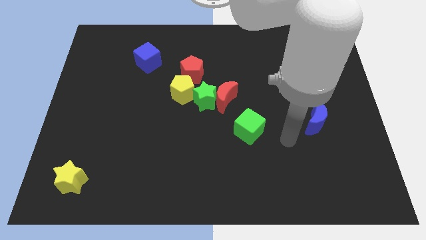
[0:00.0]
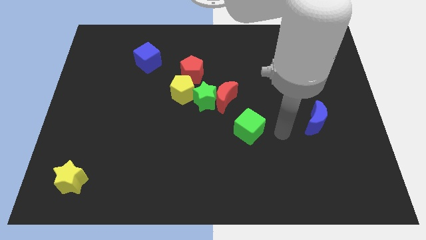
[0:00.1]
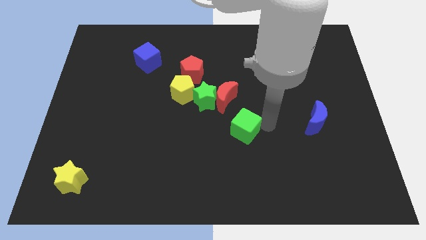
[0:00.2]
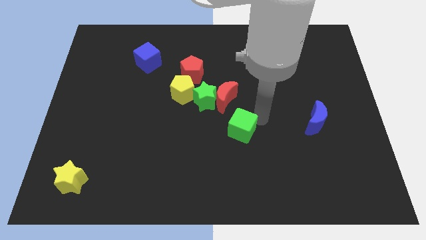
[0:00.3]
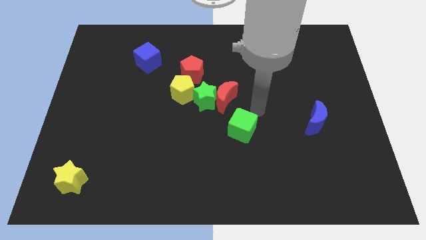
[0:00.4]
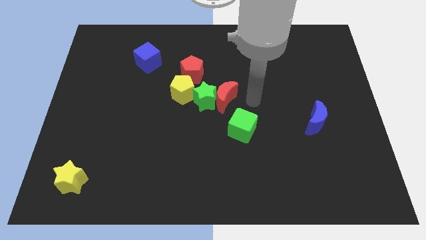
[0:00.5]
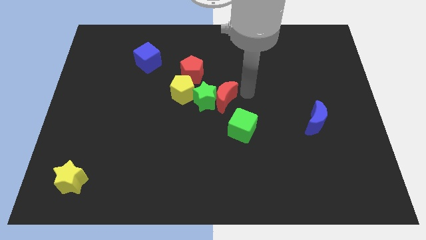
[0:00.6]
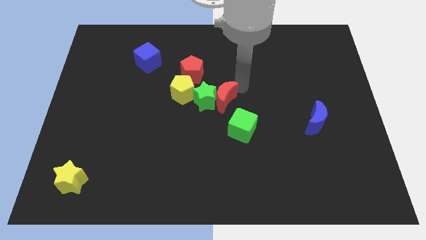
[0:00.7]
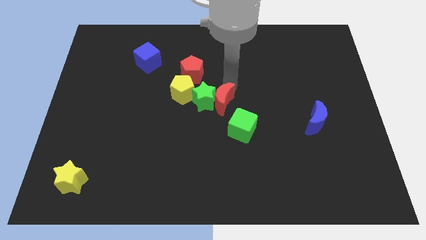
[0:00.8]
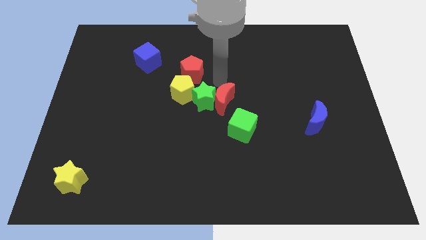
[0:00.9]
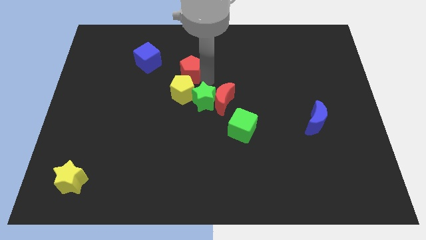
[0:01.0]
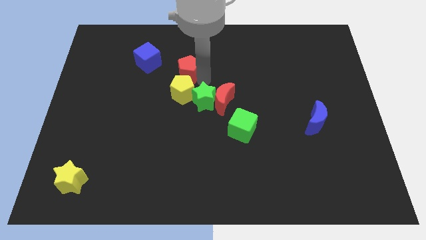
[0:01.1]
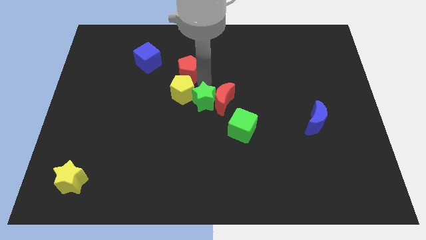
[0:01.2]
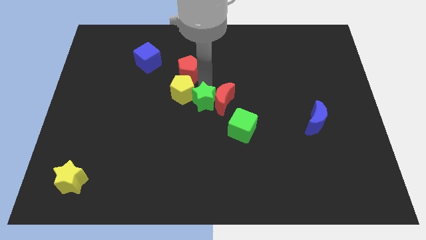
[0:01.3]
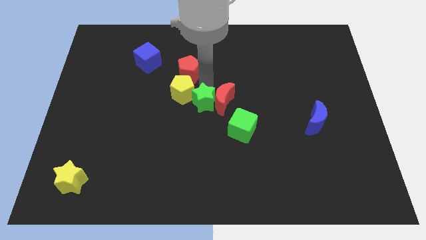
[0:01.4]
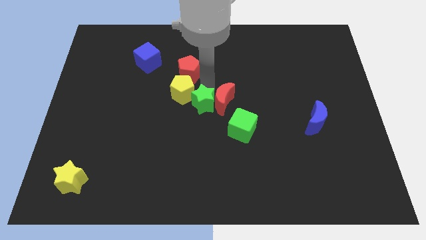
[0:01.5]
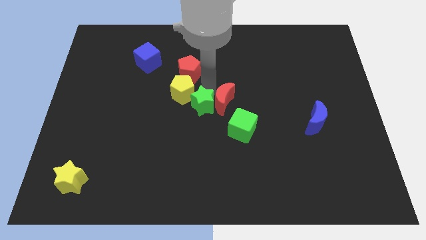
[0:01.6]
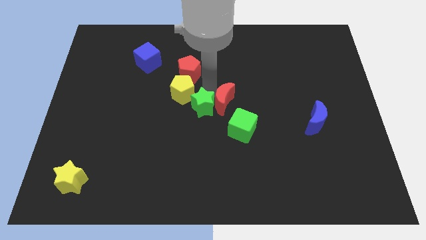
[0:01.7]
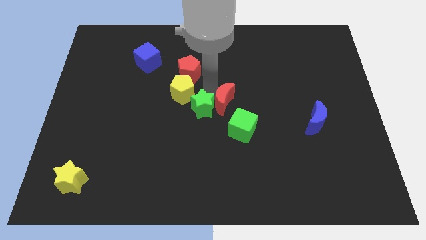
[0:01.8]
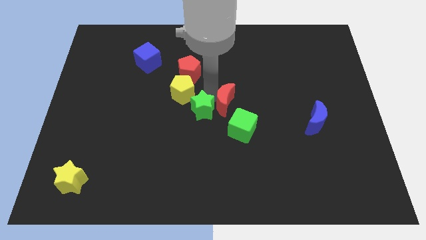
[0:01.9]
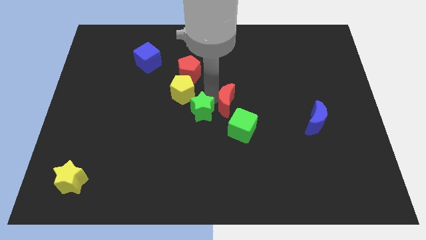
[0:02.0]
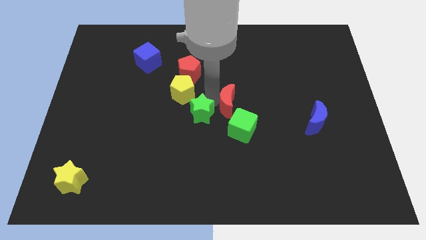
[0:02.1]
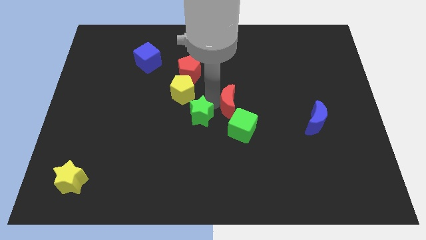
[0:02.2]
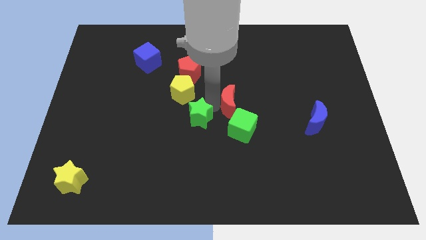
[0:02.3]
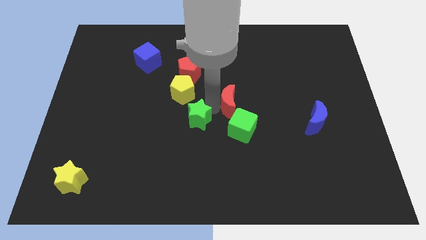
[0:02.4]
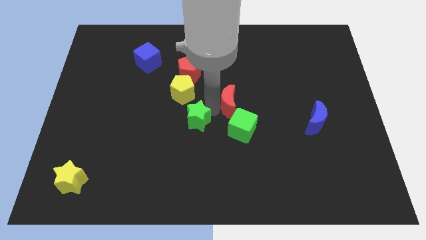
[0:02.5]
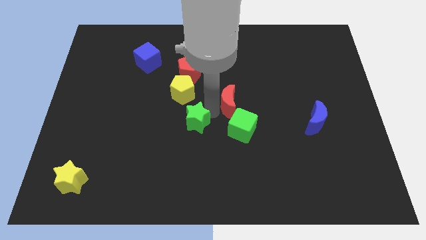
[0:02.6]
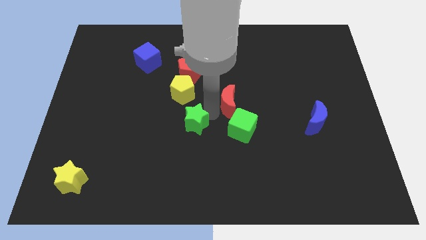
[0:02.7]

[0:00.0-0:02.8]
move the green star away from the group

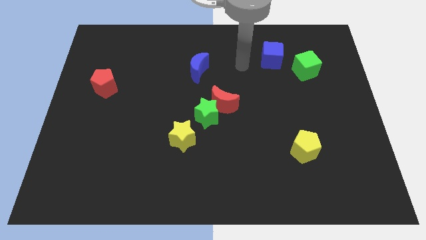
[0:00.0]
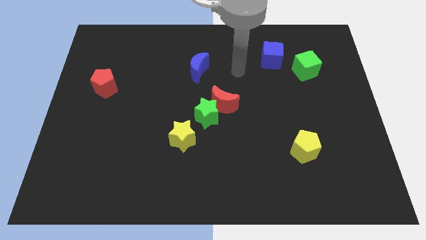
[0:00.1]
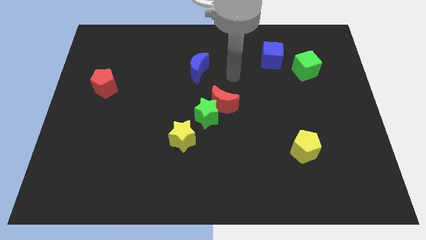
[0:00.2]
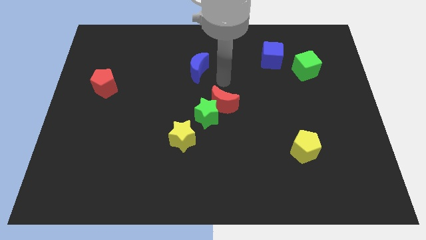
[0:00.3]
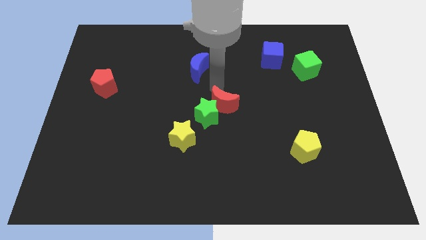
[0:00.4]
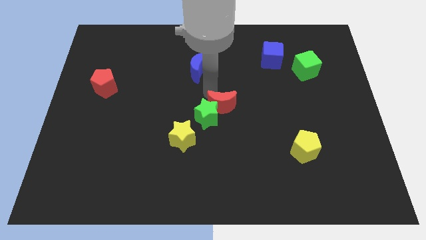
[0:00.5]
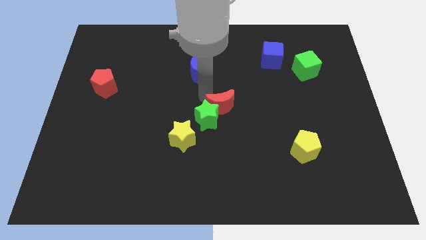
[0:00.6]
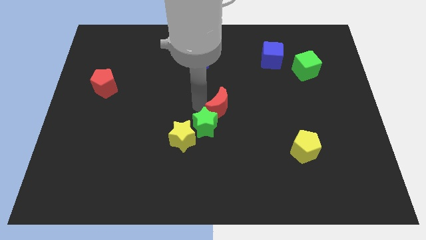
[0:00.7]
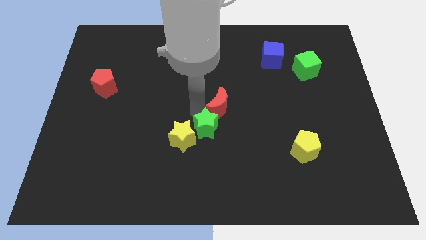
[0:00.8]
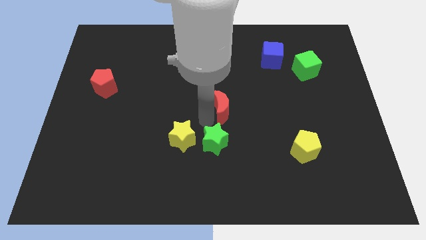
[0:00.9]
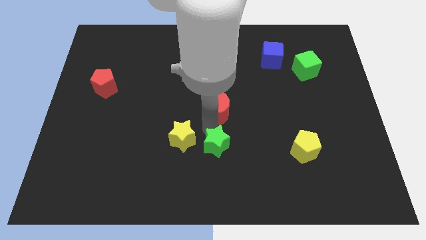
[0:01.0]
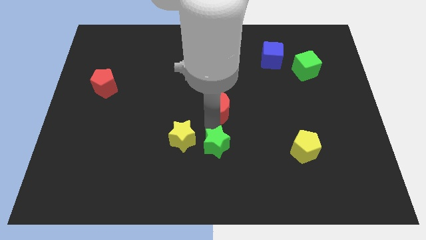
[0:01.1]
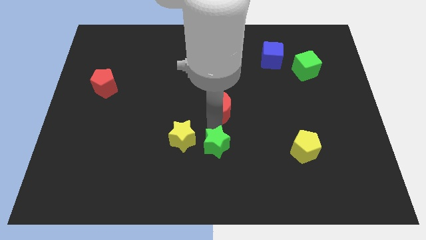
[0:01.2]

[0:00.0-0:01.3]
pull the red moon apart from the green star
